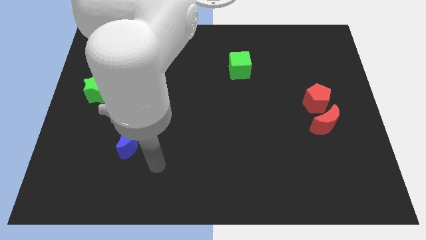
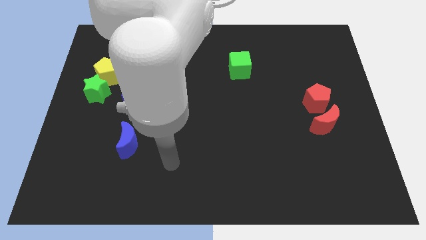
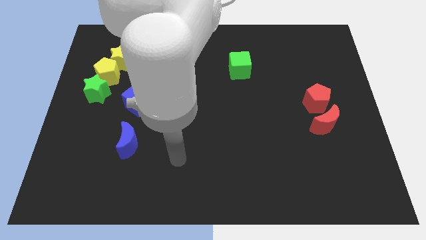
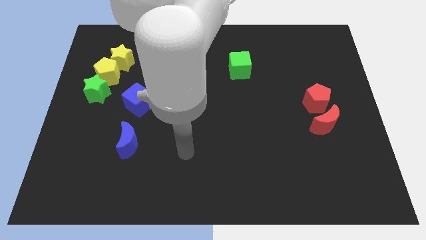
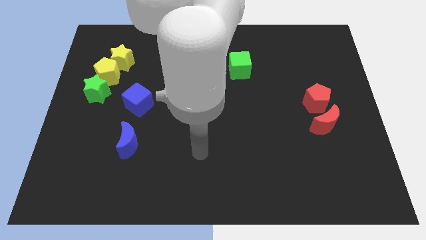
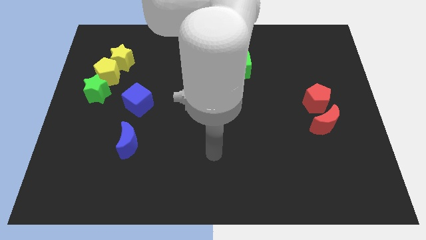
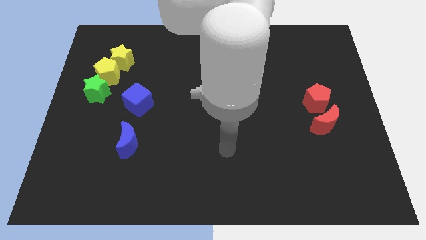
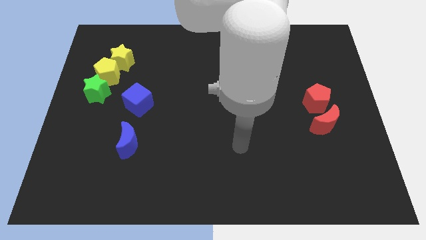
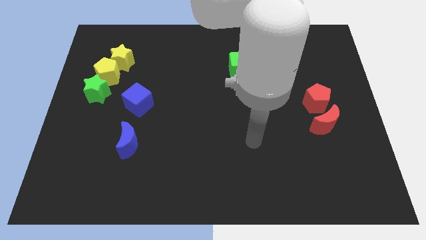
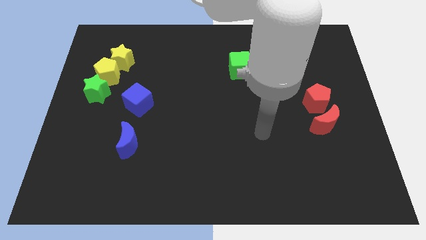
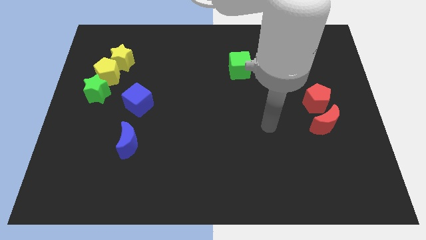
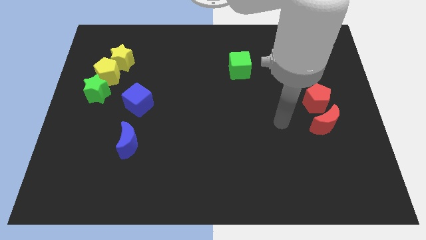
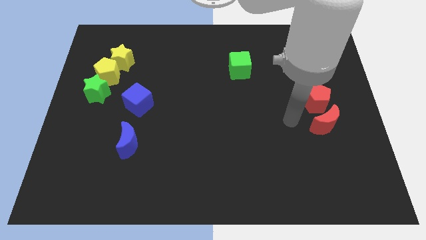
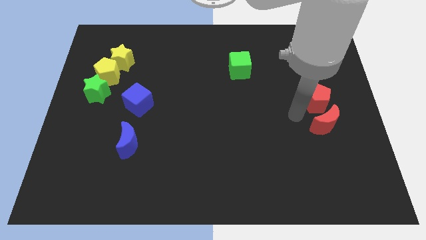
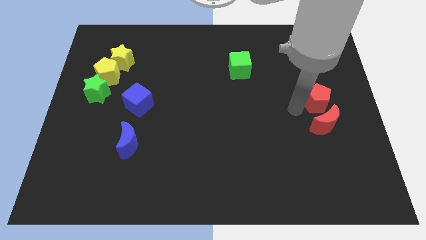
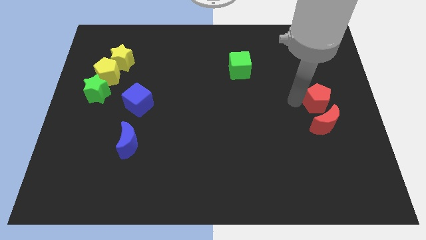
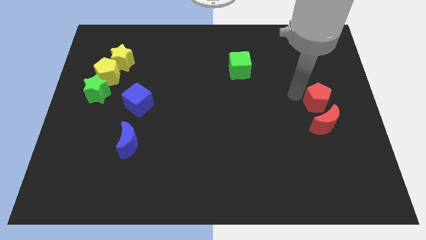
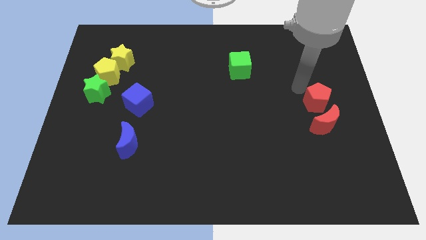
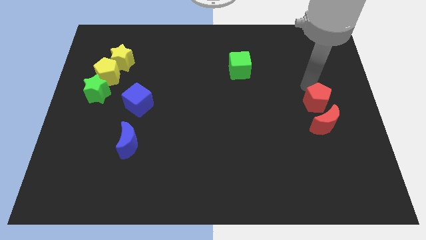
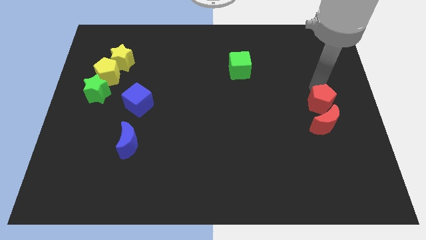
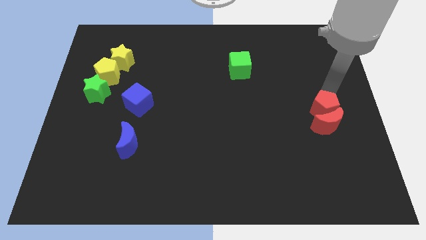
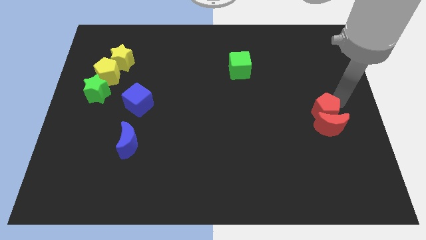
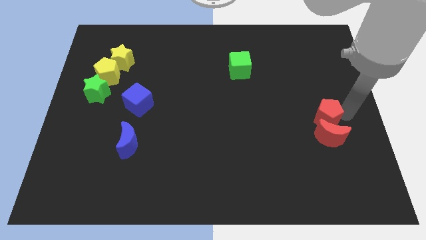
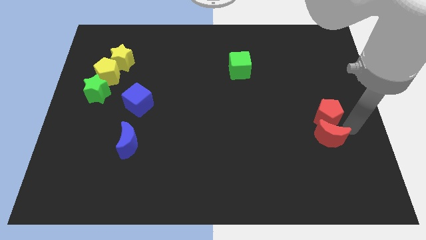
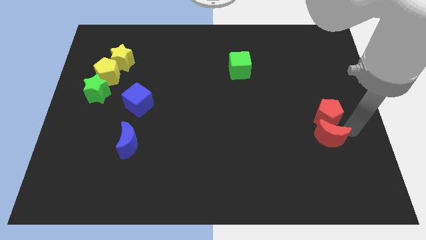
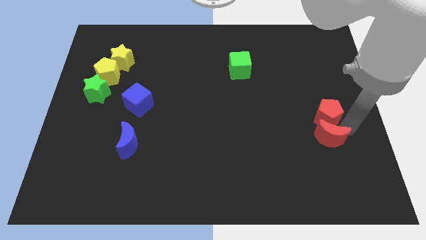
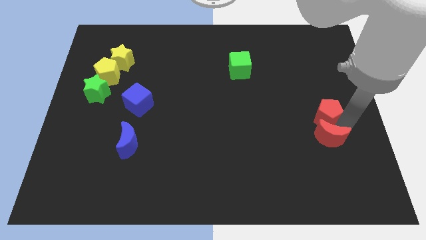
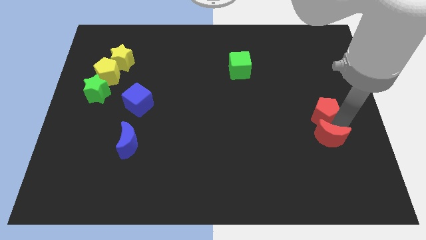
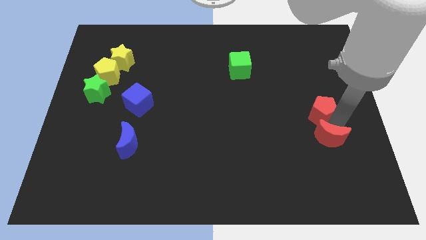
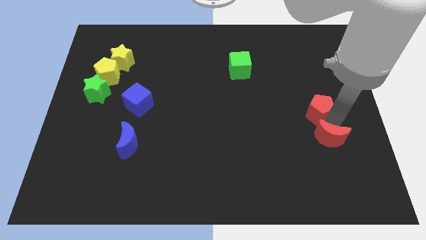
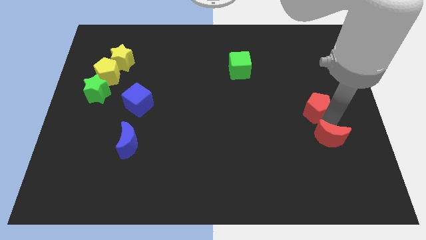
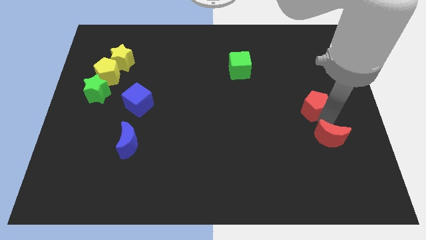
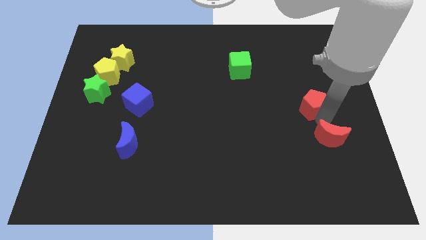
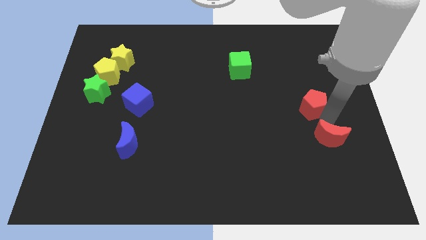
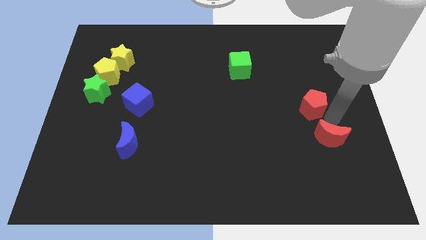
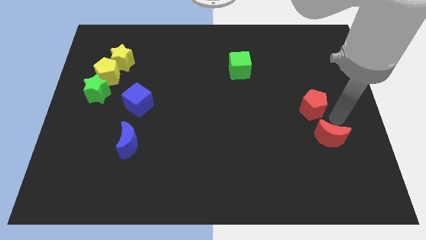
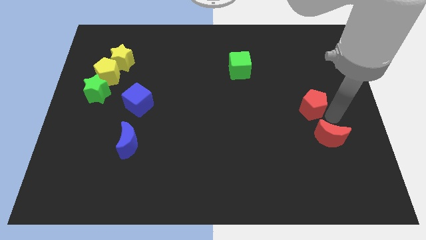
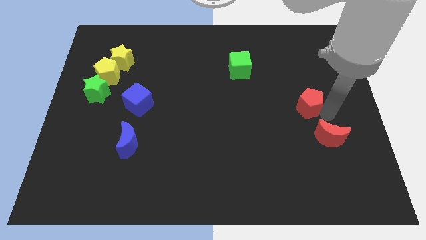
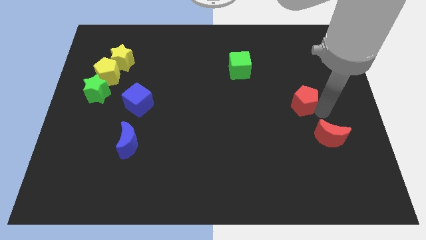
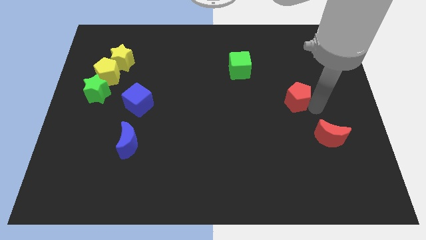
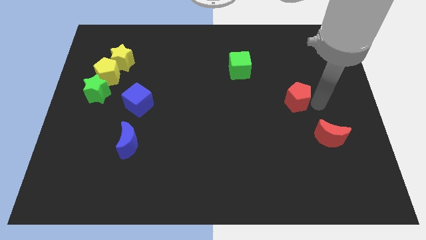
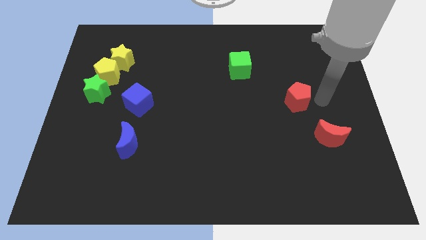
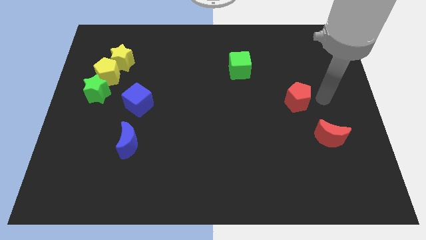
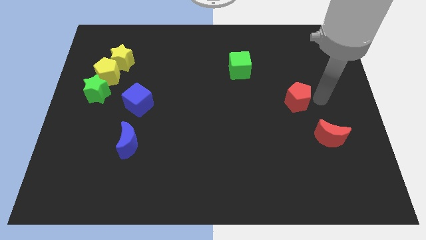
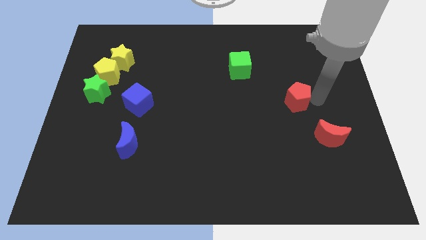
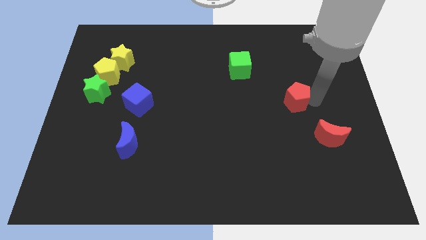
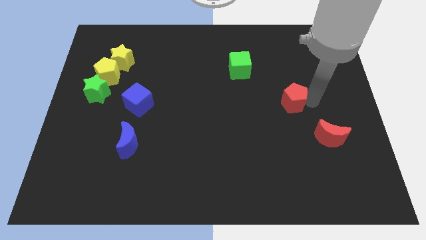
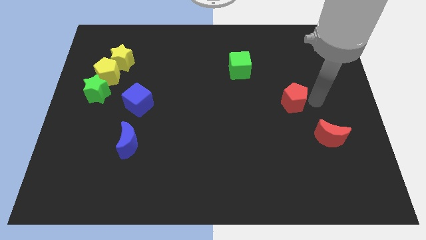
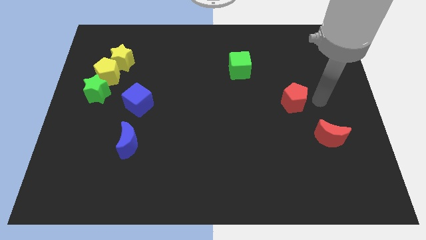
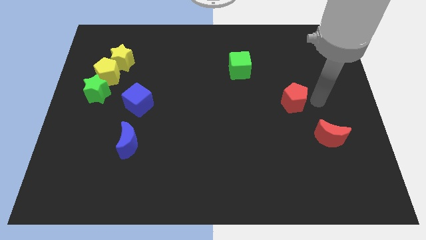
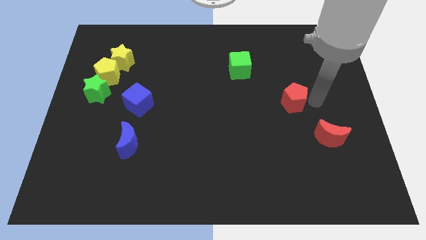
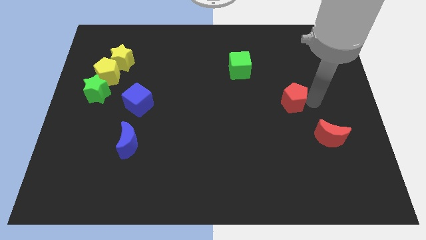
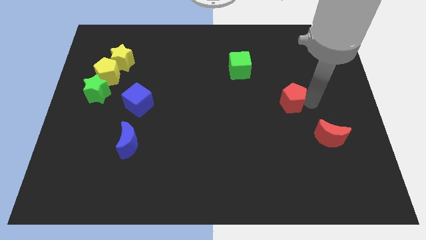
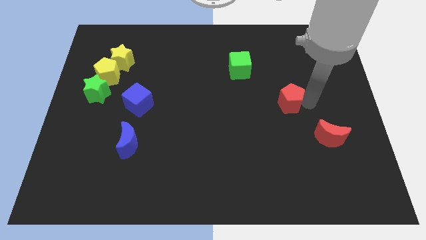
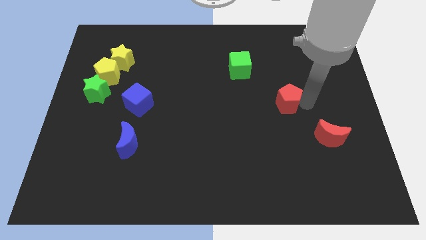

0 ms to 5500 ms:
push the red pentagon somewhat left

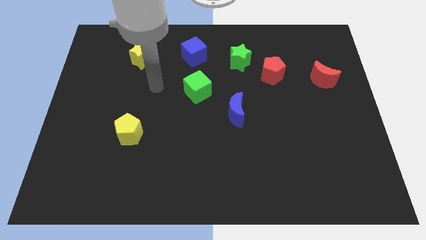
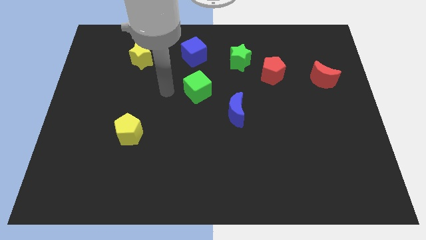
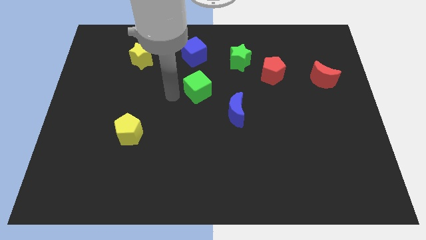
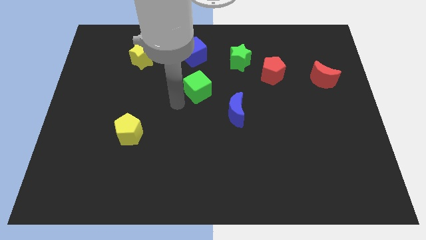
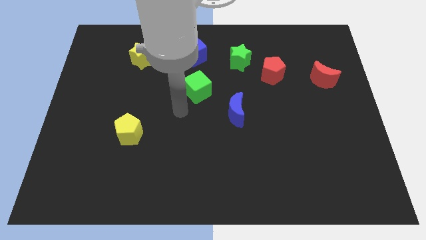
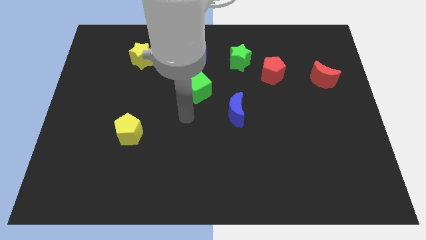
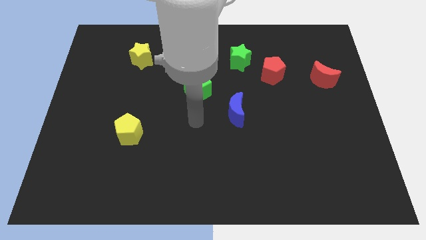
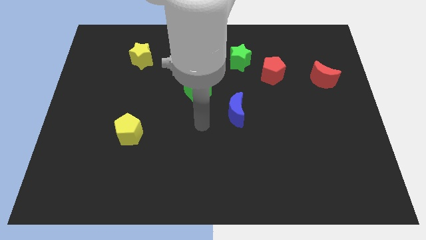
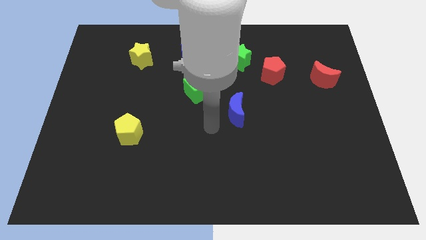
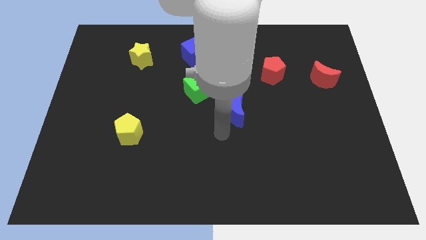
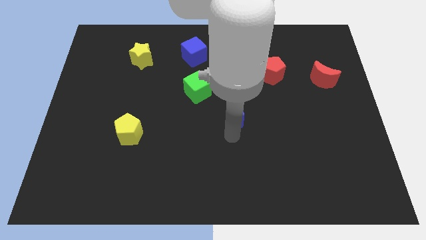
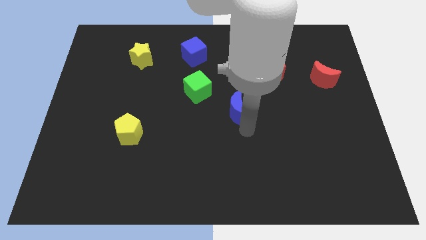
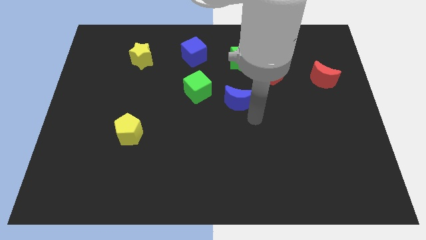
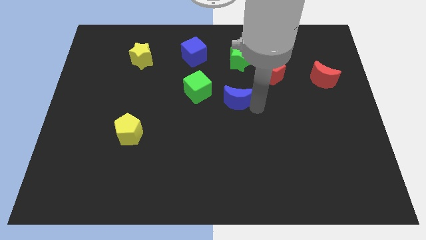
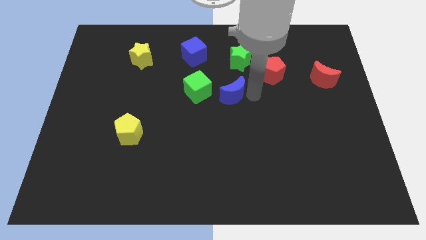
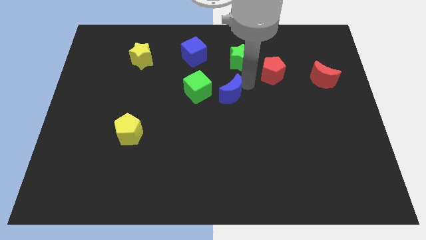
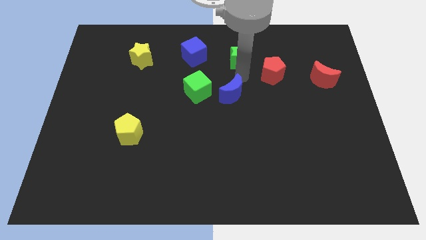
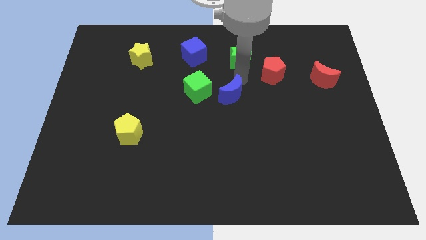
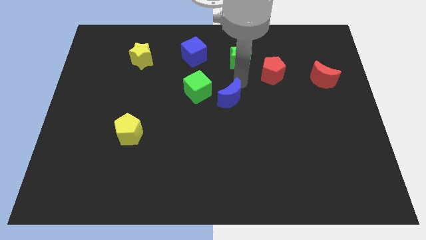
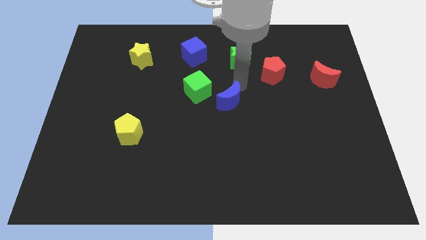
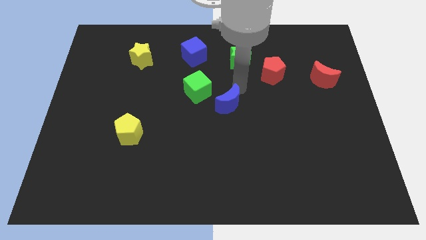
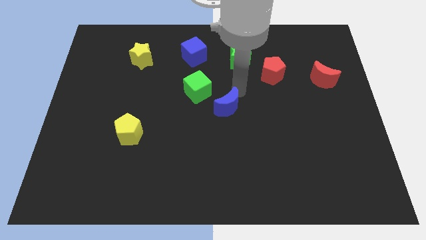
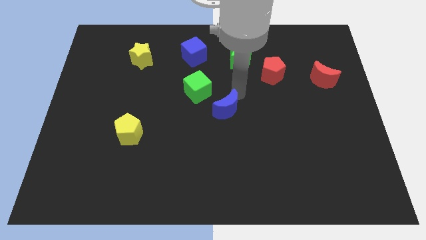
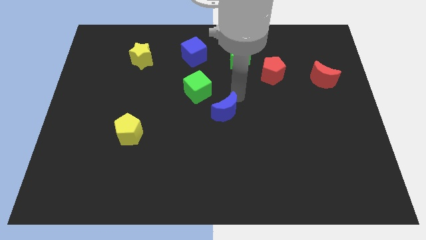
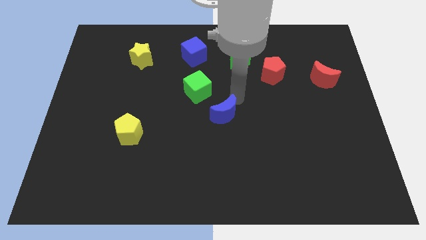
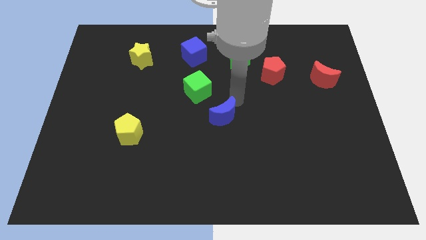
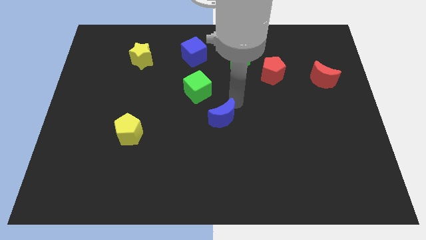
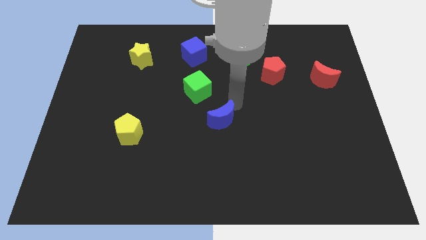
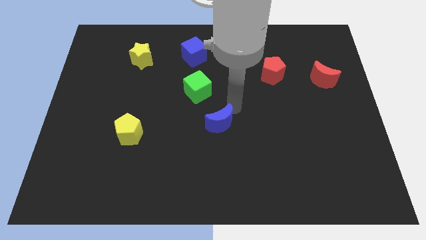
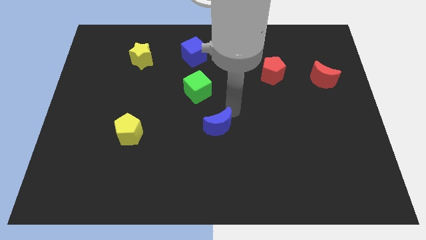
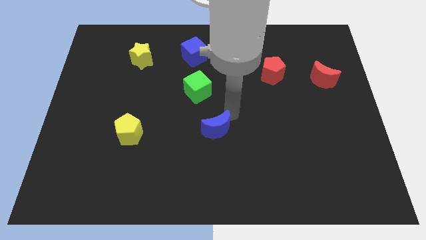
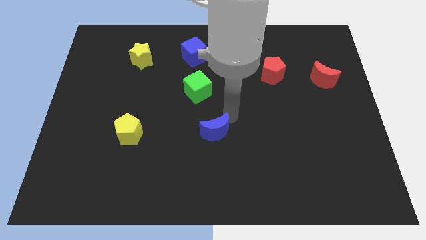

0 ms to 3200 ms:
move the blue moon a little bit down and to the left diagonally
